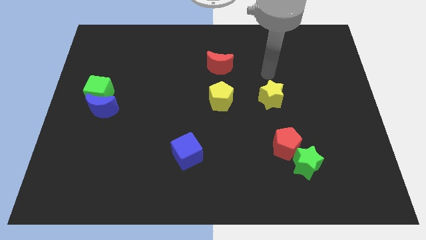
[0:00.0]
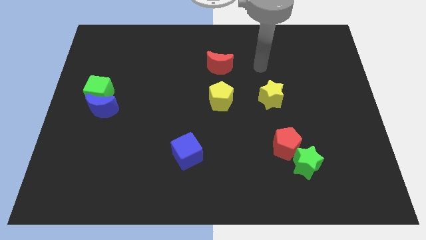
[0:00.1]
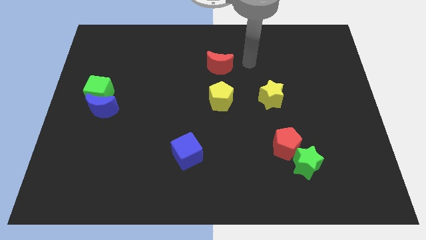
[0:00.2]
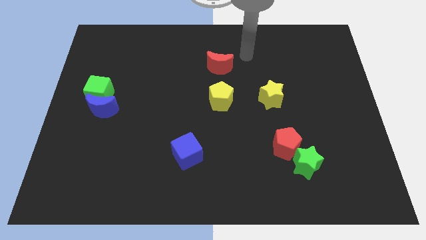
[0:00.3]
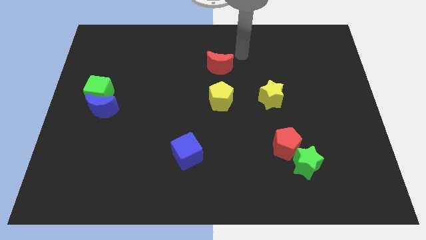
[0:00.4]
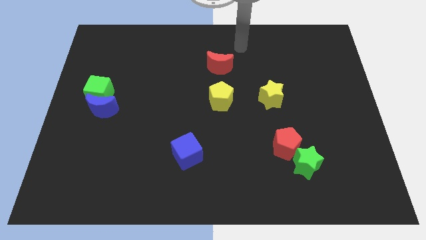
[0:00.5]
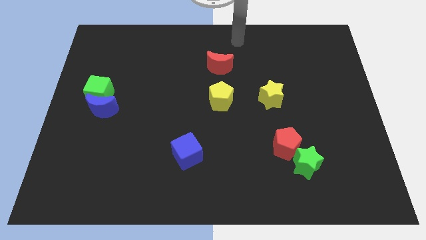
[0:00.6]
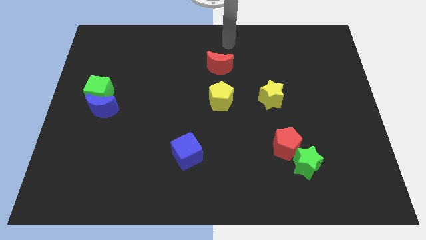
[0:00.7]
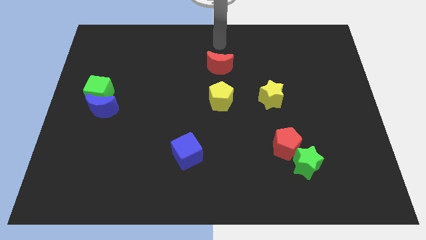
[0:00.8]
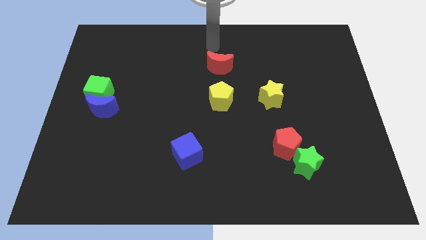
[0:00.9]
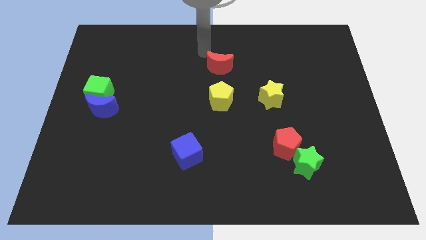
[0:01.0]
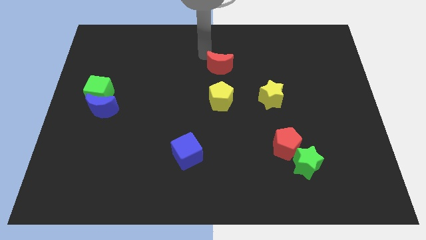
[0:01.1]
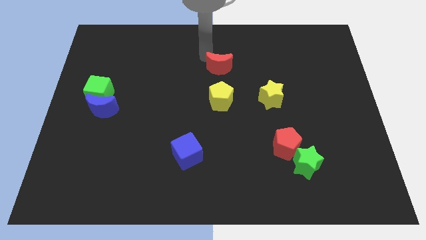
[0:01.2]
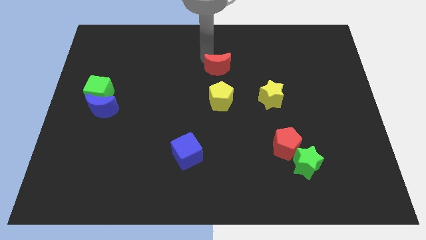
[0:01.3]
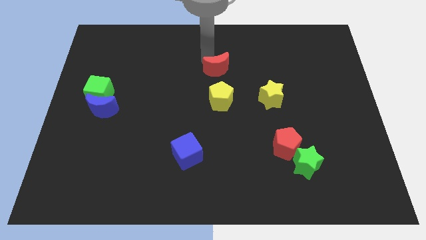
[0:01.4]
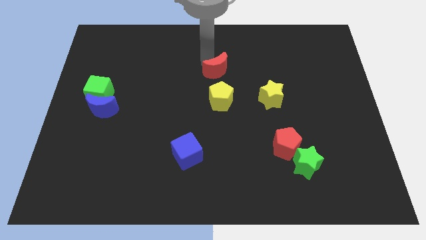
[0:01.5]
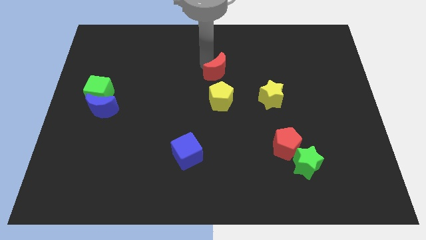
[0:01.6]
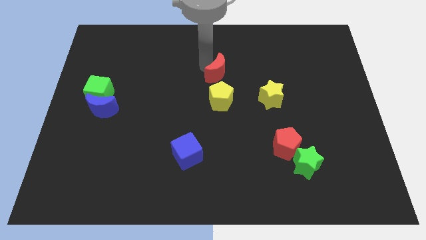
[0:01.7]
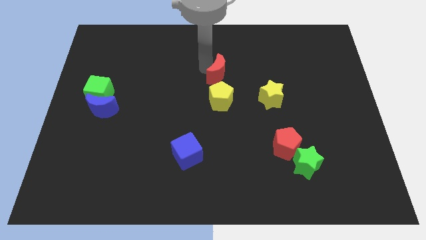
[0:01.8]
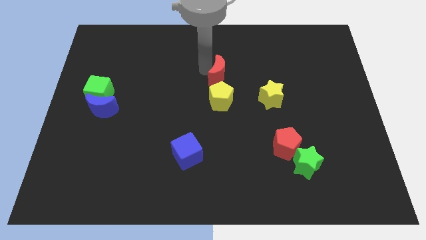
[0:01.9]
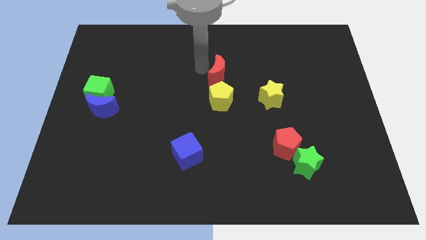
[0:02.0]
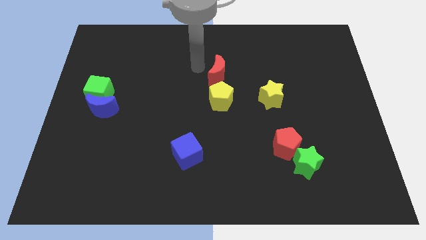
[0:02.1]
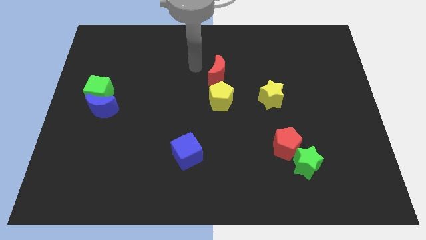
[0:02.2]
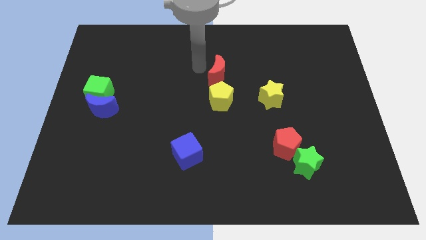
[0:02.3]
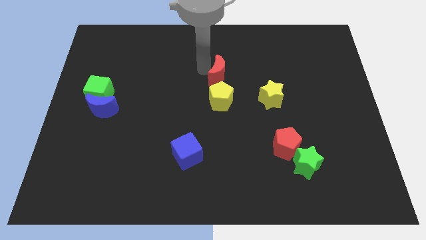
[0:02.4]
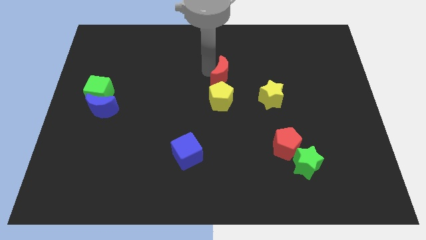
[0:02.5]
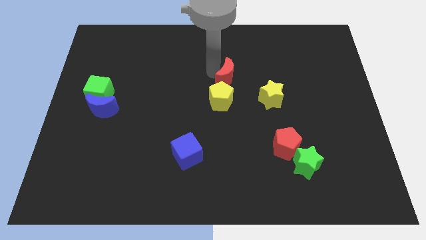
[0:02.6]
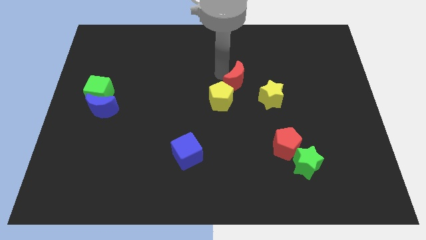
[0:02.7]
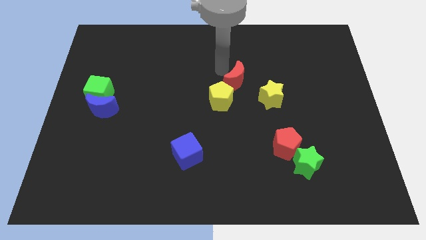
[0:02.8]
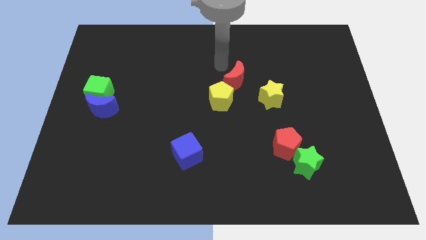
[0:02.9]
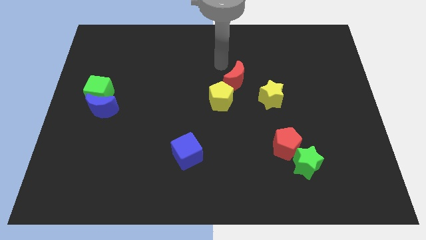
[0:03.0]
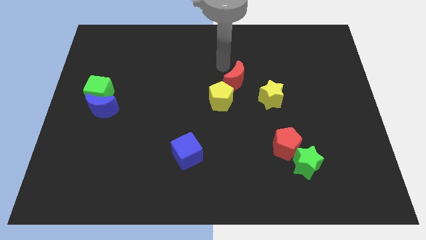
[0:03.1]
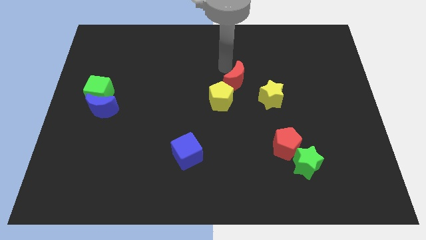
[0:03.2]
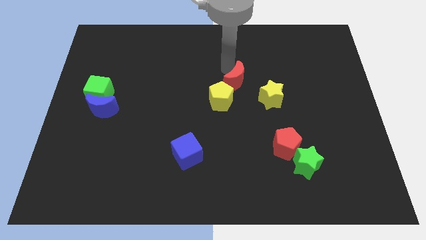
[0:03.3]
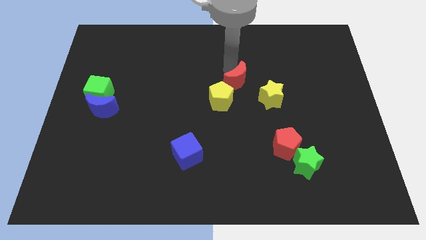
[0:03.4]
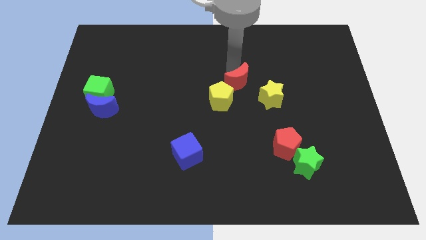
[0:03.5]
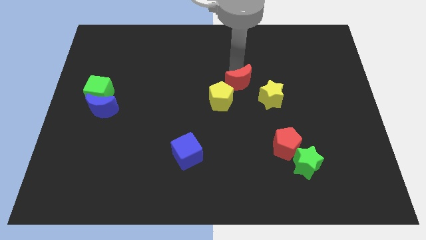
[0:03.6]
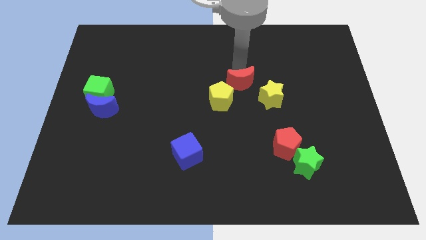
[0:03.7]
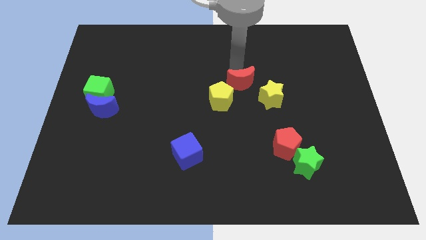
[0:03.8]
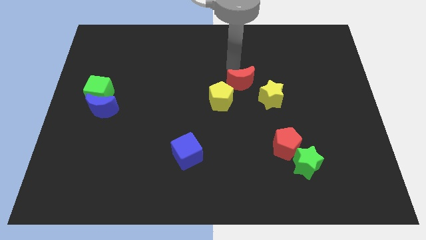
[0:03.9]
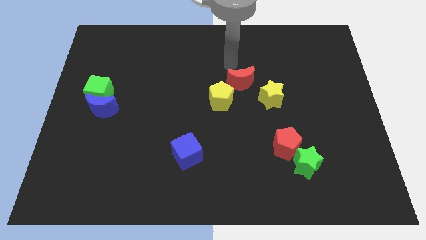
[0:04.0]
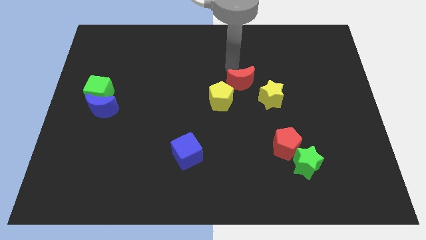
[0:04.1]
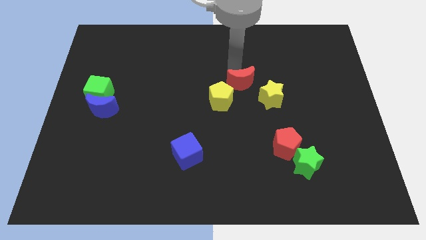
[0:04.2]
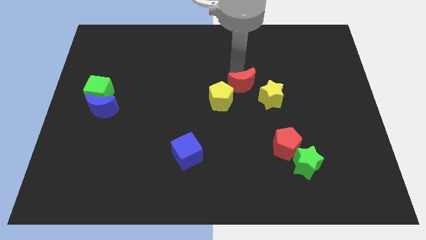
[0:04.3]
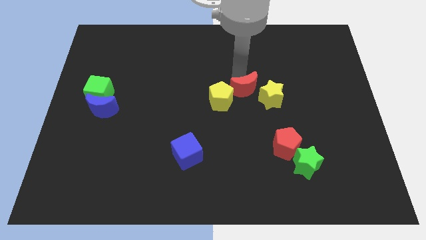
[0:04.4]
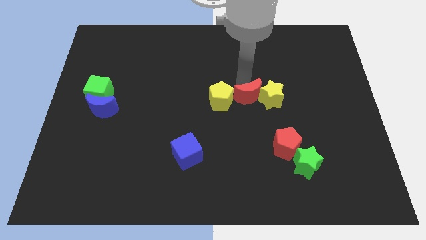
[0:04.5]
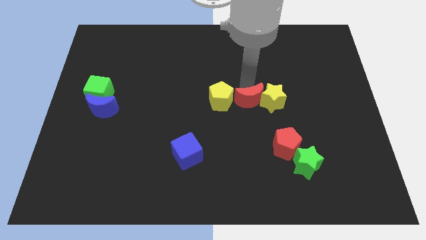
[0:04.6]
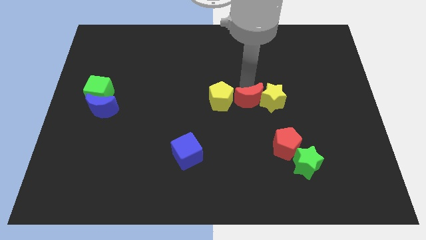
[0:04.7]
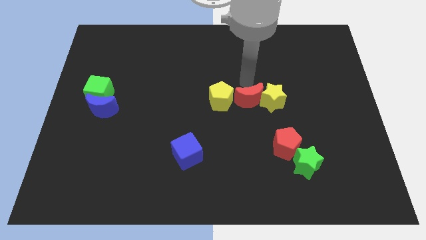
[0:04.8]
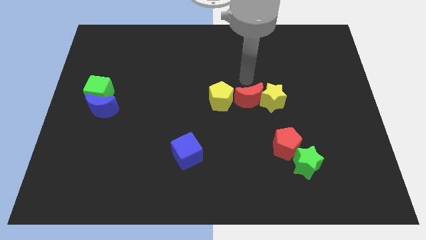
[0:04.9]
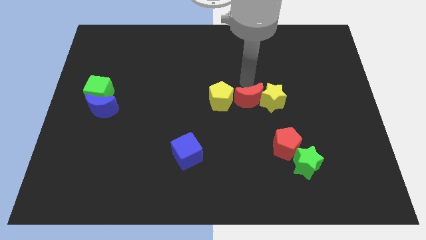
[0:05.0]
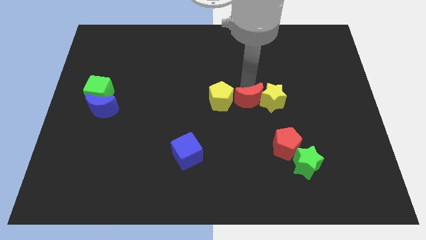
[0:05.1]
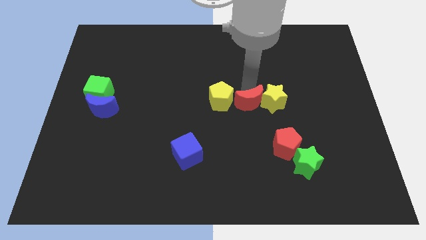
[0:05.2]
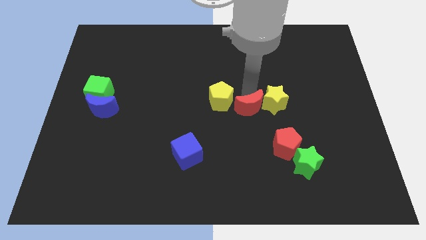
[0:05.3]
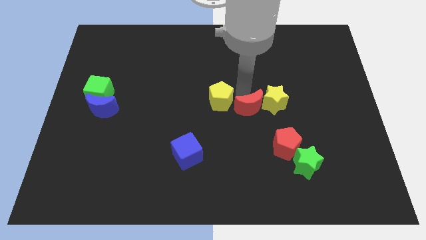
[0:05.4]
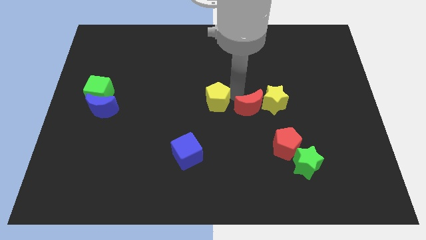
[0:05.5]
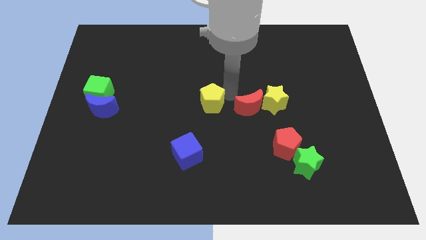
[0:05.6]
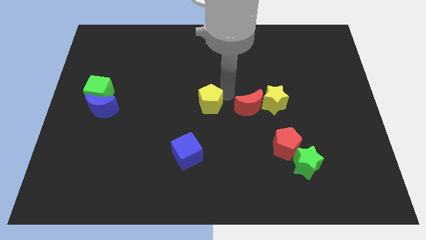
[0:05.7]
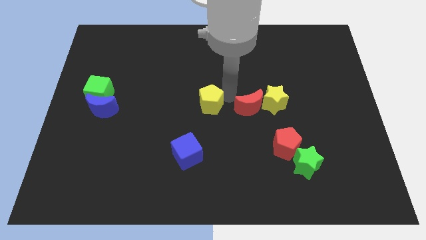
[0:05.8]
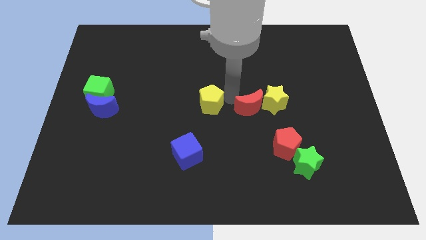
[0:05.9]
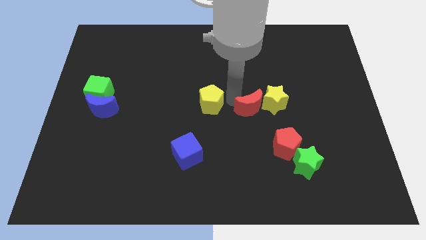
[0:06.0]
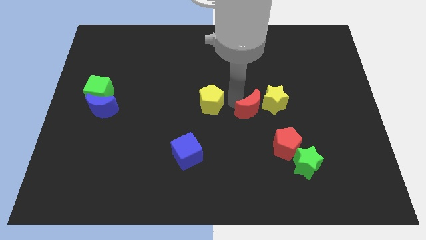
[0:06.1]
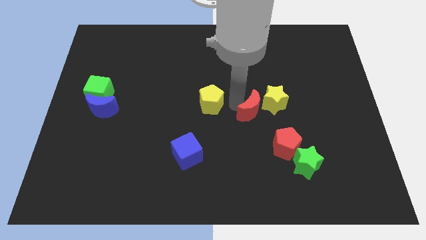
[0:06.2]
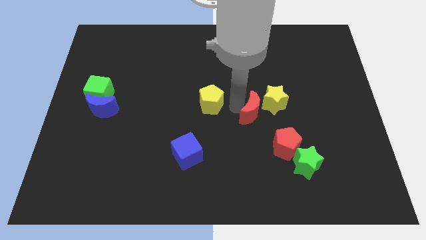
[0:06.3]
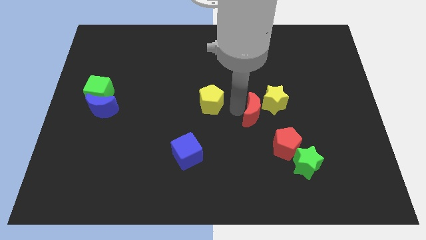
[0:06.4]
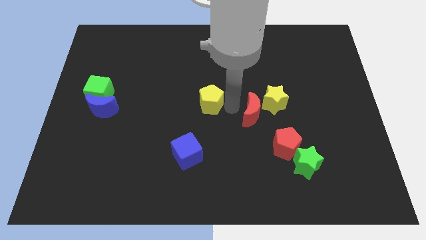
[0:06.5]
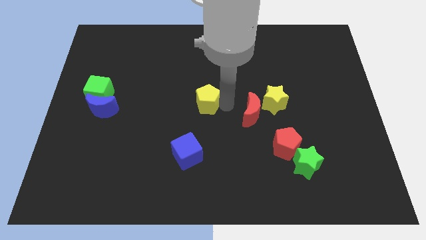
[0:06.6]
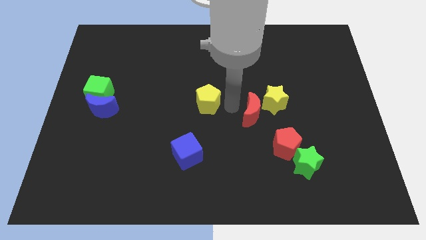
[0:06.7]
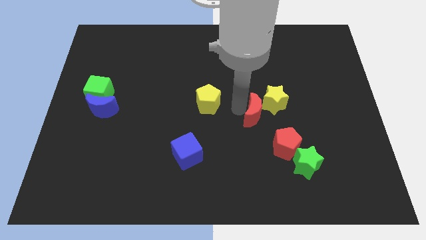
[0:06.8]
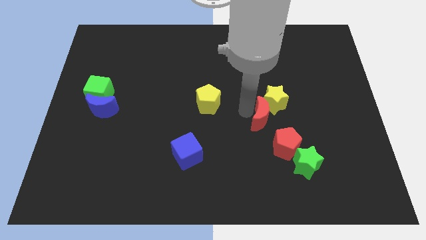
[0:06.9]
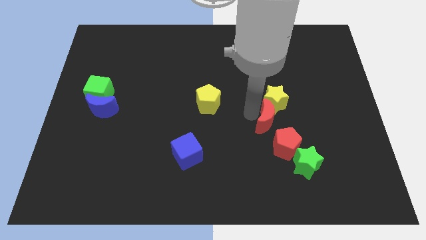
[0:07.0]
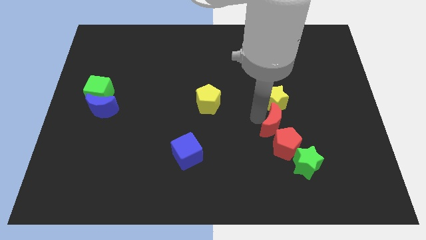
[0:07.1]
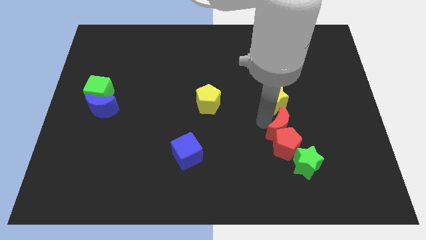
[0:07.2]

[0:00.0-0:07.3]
move the red moon to the top of the green star
